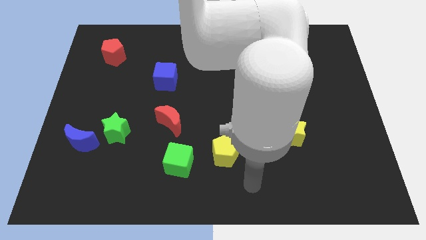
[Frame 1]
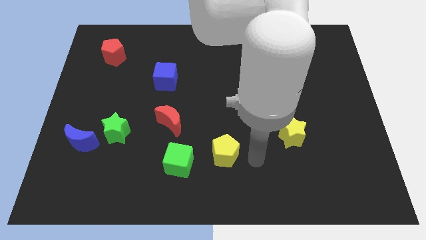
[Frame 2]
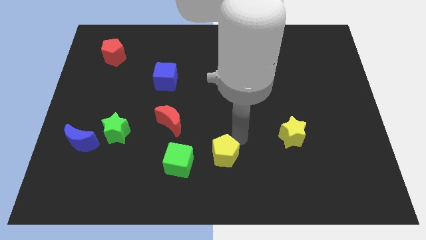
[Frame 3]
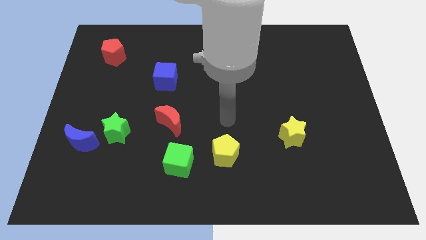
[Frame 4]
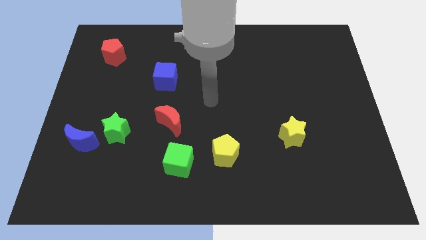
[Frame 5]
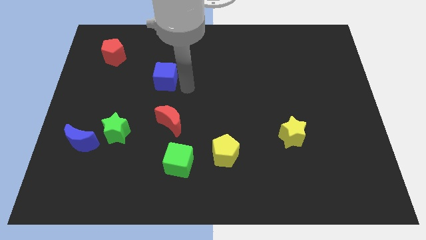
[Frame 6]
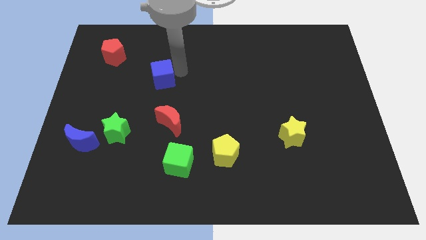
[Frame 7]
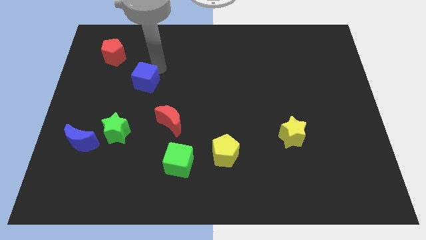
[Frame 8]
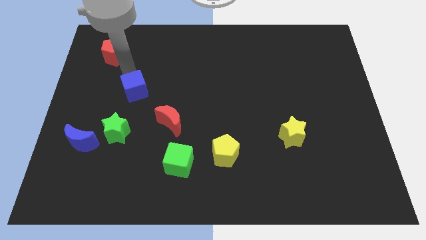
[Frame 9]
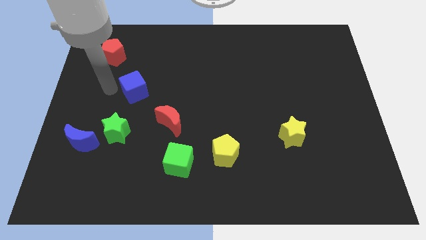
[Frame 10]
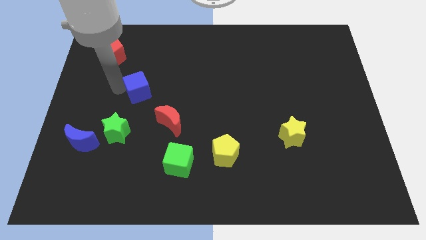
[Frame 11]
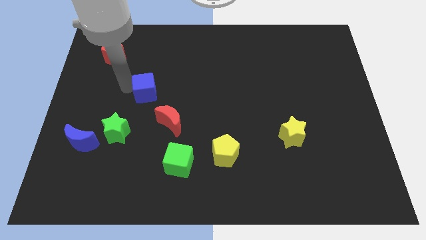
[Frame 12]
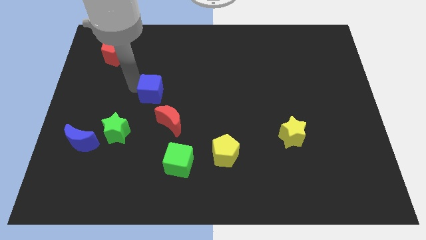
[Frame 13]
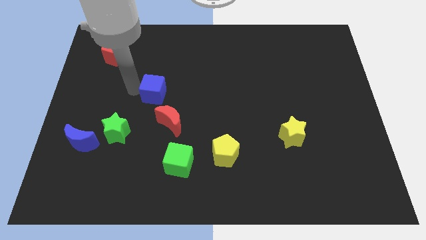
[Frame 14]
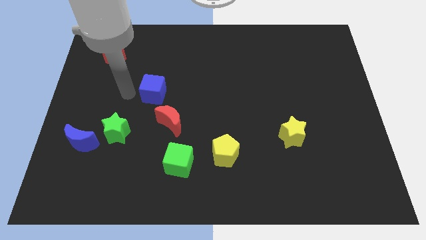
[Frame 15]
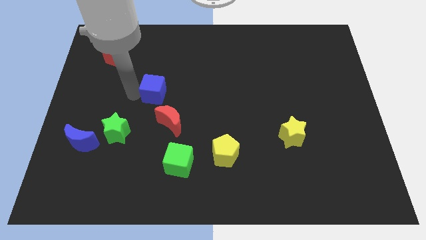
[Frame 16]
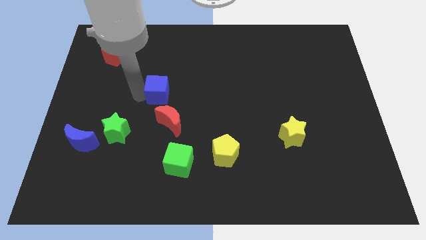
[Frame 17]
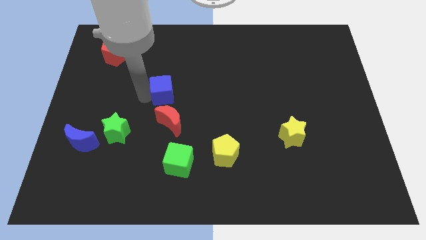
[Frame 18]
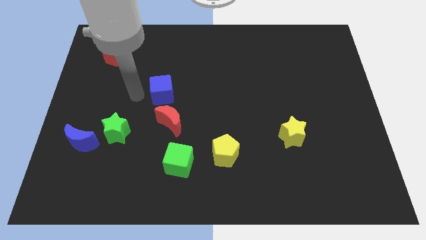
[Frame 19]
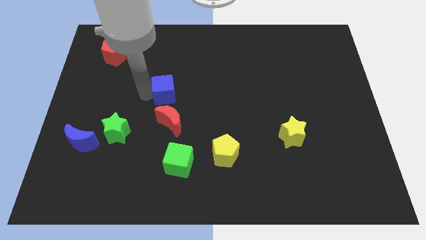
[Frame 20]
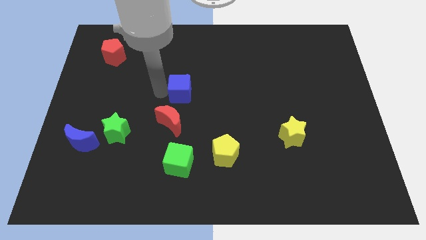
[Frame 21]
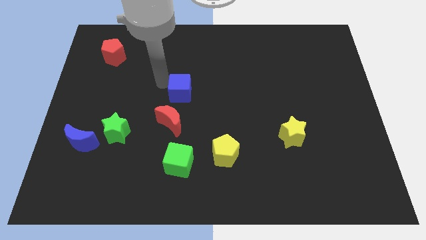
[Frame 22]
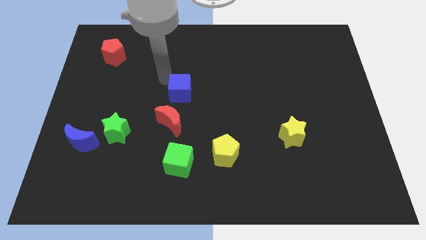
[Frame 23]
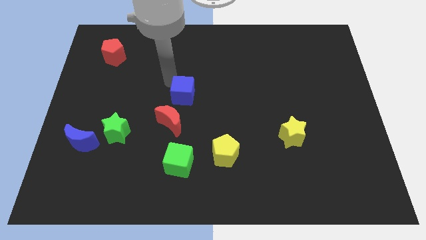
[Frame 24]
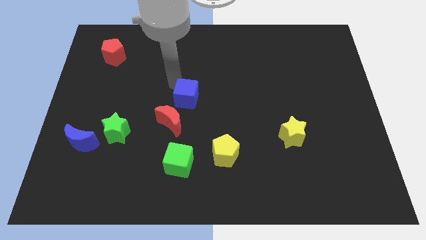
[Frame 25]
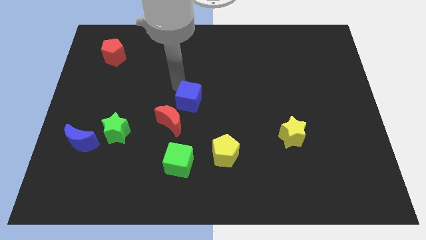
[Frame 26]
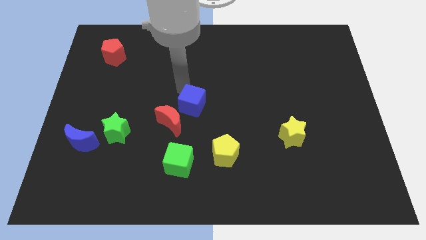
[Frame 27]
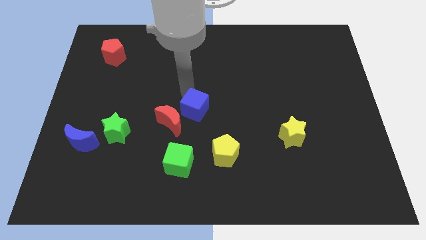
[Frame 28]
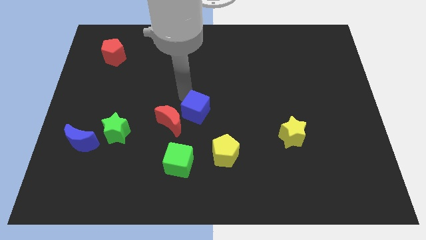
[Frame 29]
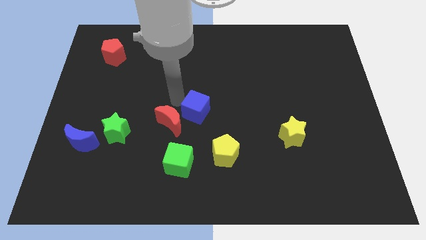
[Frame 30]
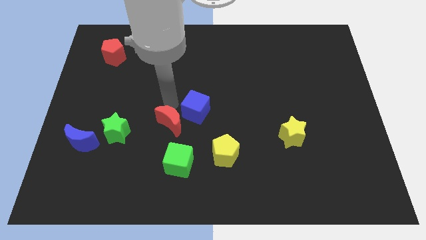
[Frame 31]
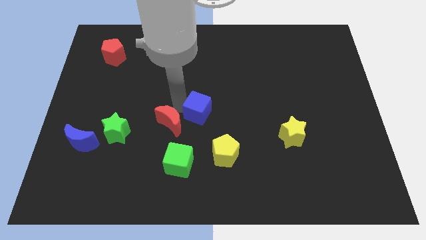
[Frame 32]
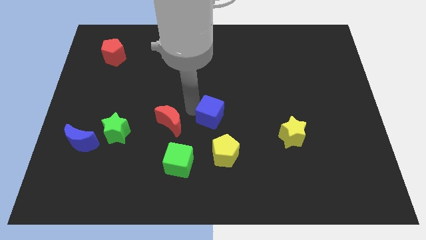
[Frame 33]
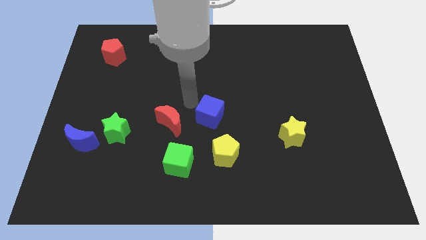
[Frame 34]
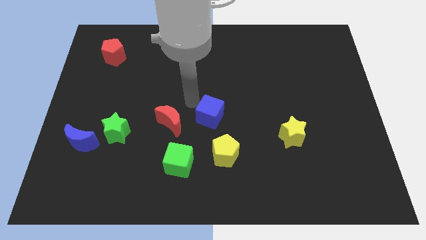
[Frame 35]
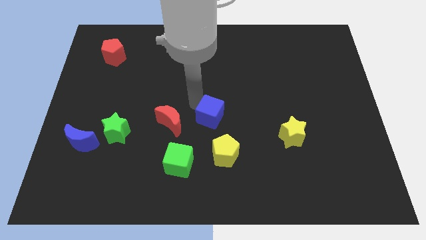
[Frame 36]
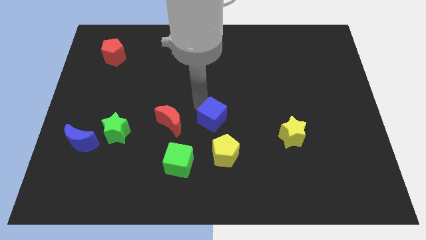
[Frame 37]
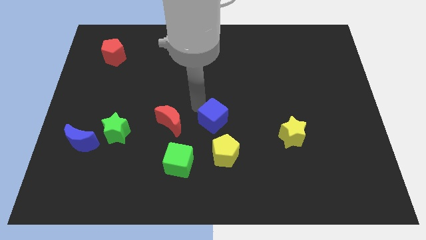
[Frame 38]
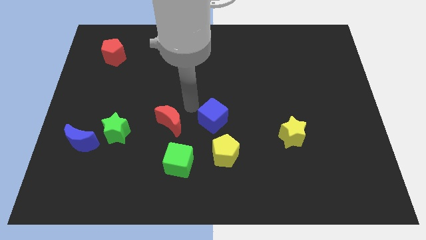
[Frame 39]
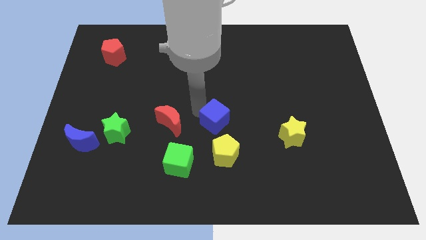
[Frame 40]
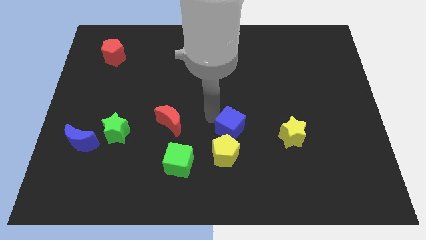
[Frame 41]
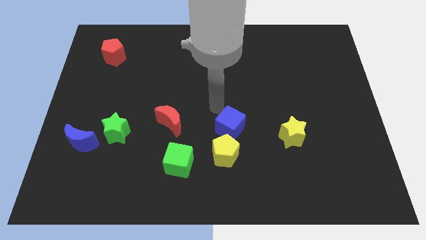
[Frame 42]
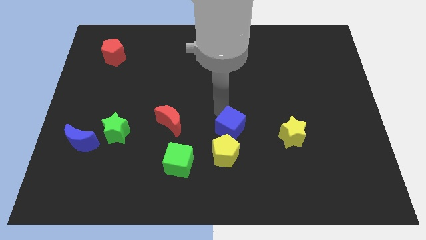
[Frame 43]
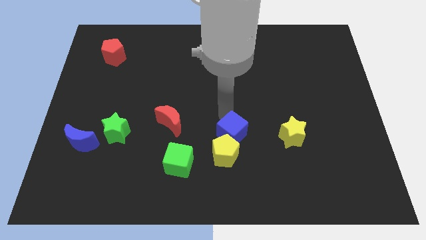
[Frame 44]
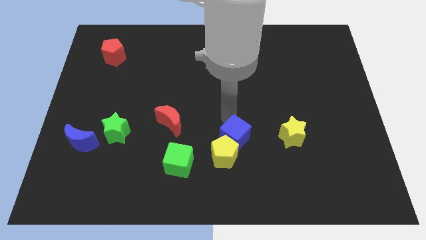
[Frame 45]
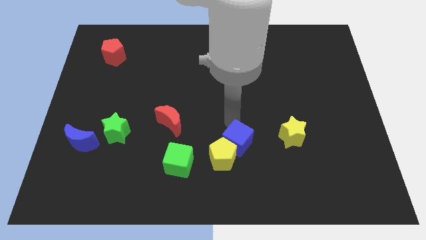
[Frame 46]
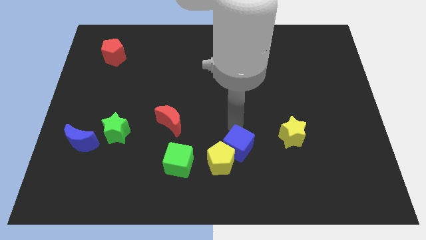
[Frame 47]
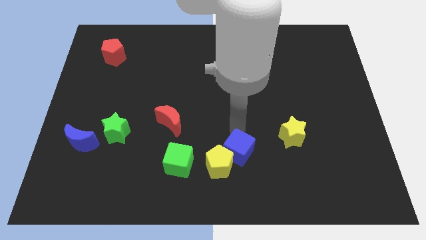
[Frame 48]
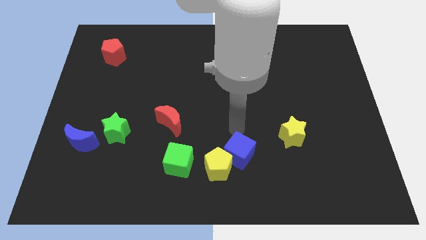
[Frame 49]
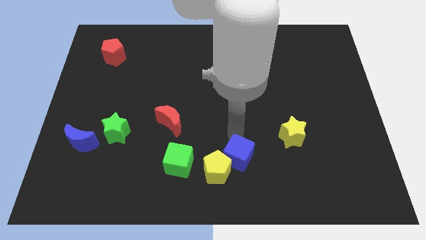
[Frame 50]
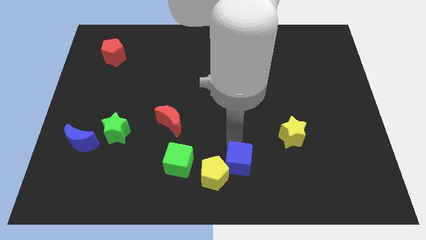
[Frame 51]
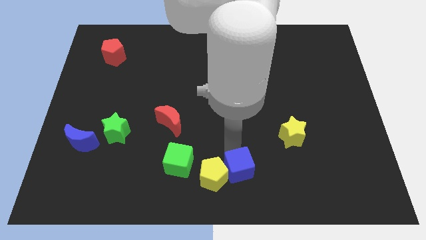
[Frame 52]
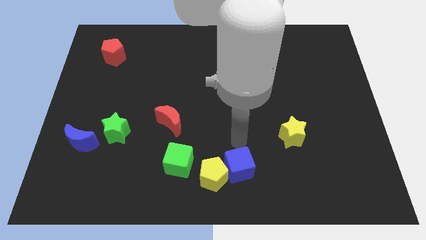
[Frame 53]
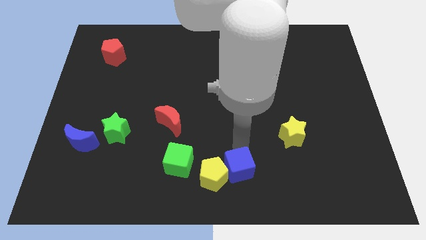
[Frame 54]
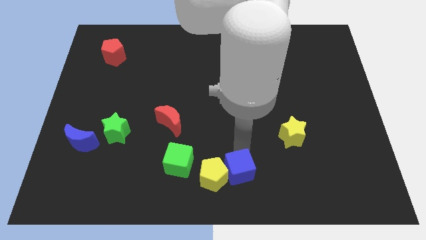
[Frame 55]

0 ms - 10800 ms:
slide the blue cube diagonally down and to the right of the yellow pentagon

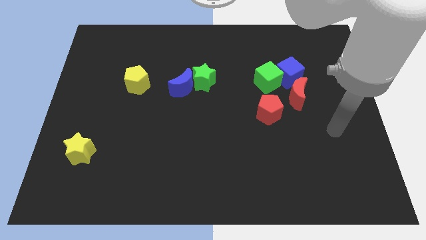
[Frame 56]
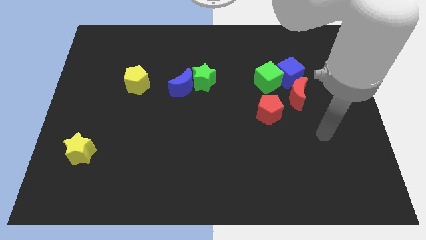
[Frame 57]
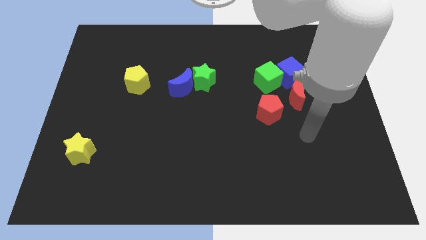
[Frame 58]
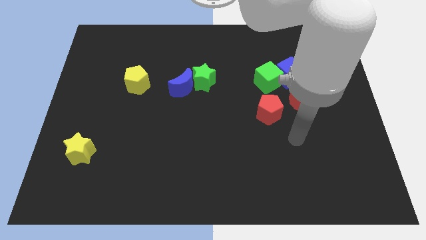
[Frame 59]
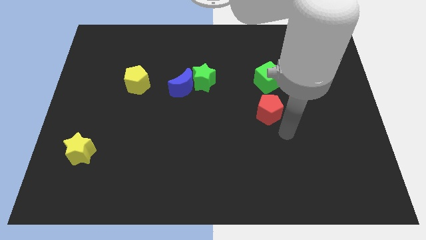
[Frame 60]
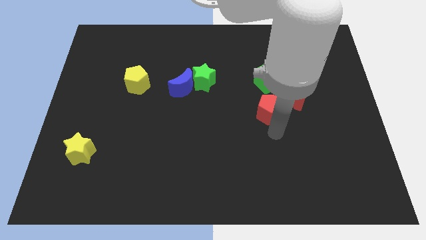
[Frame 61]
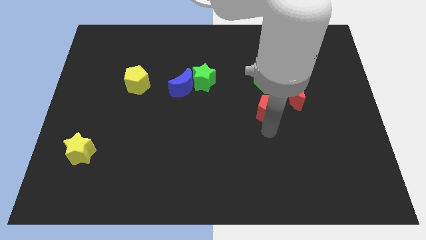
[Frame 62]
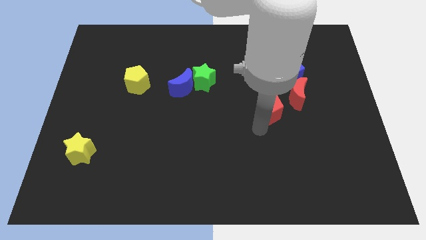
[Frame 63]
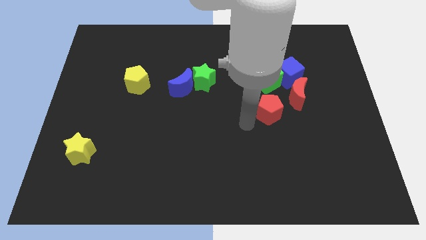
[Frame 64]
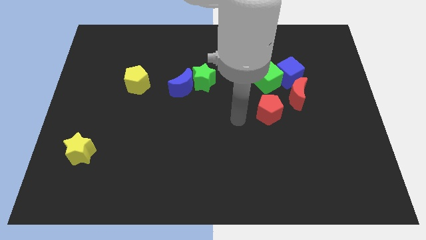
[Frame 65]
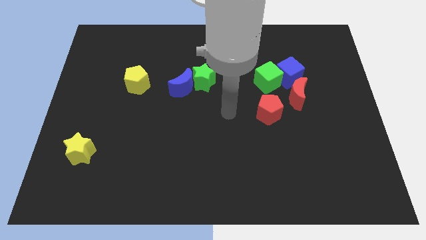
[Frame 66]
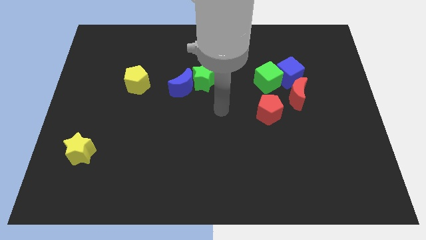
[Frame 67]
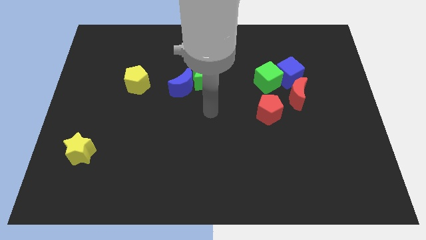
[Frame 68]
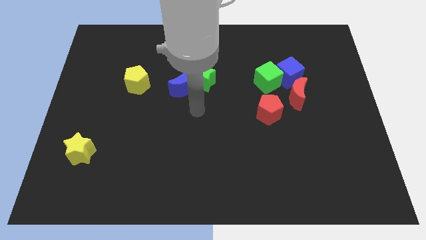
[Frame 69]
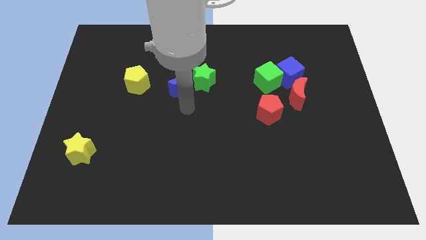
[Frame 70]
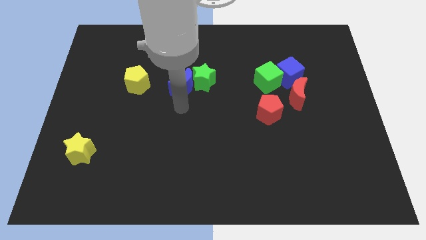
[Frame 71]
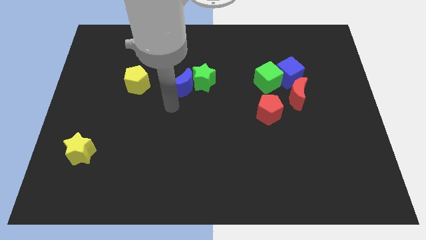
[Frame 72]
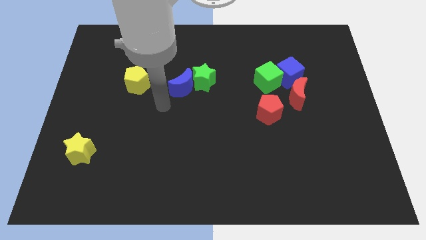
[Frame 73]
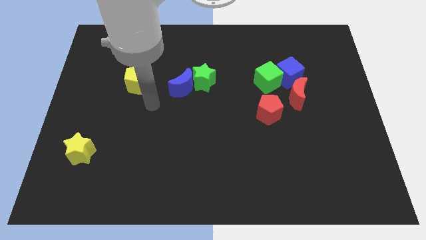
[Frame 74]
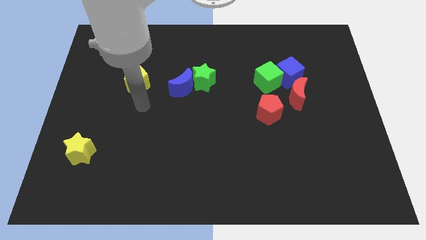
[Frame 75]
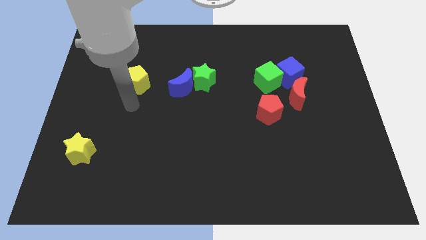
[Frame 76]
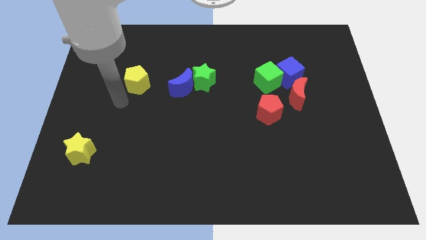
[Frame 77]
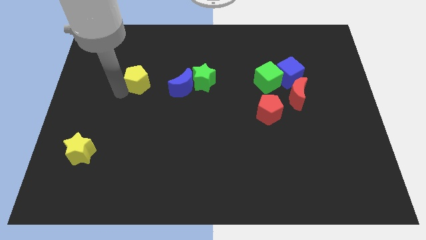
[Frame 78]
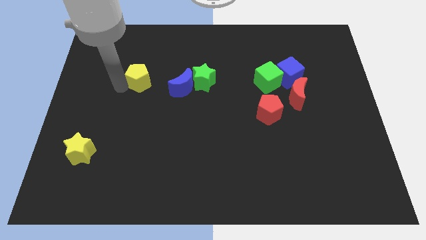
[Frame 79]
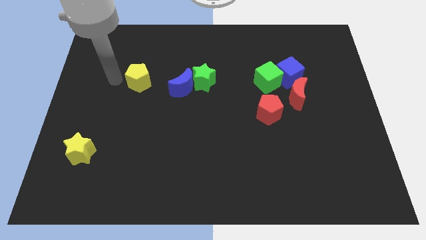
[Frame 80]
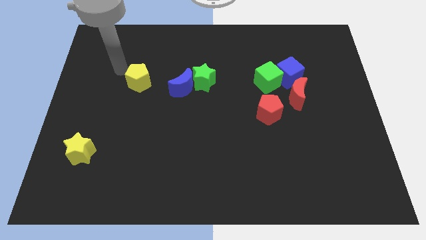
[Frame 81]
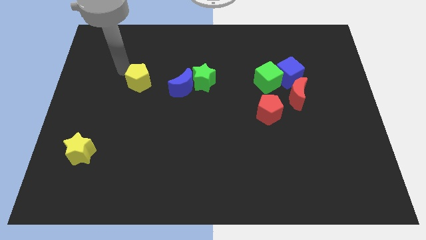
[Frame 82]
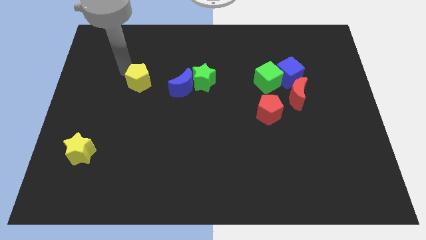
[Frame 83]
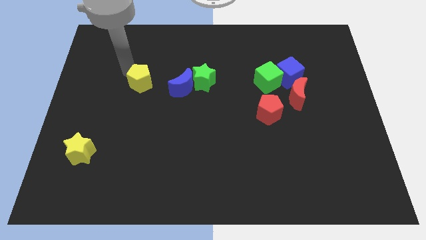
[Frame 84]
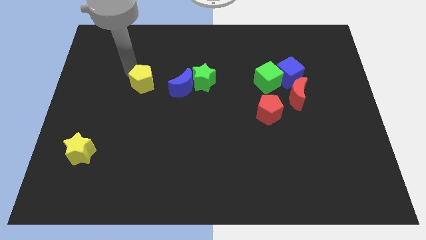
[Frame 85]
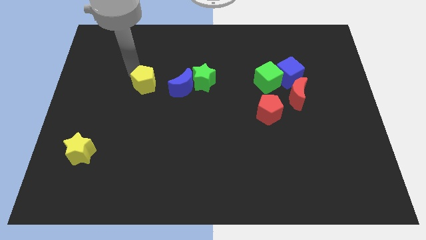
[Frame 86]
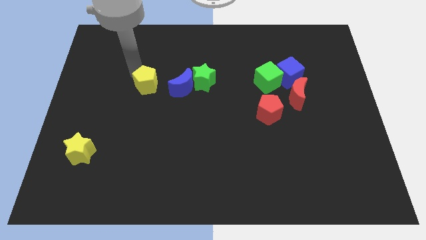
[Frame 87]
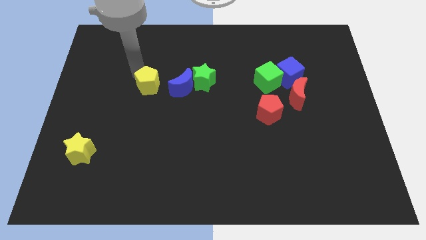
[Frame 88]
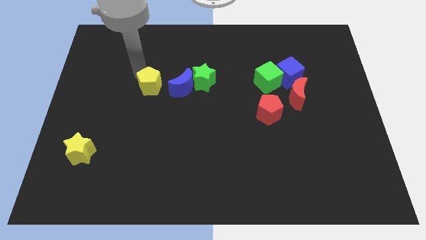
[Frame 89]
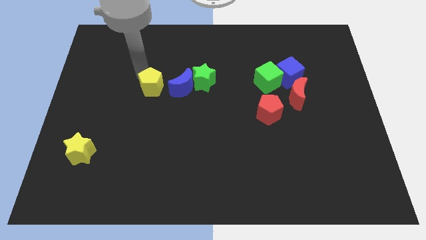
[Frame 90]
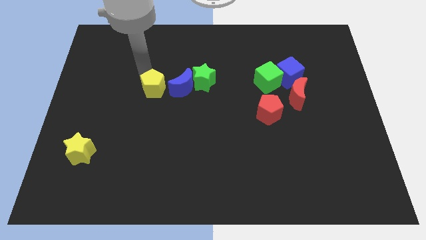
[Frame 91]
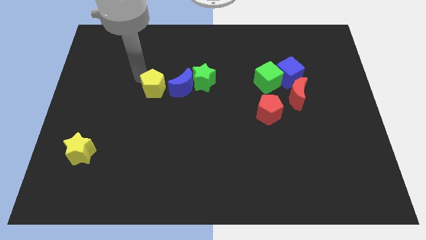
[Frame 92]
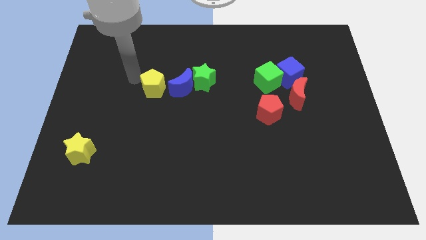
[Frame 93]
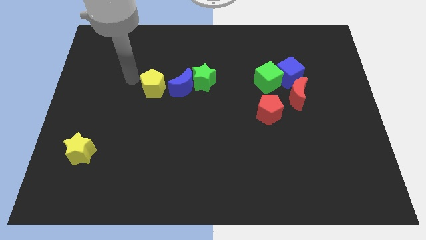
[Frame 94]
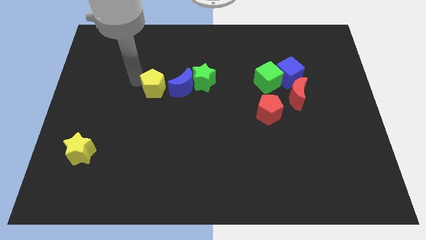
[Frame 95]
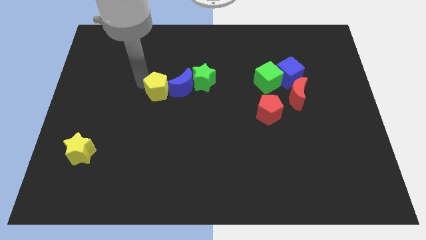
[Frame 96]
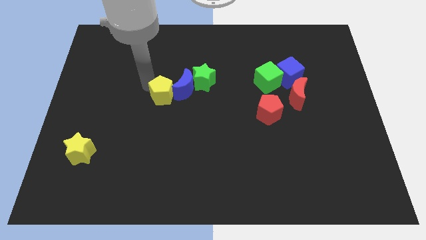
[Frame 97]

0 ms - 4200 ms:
push the yellow pentagon diagonally down and to the left of the green star
